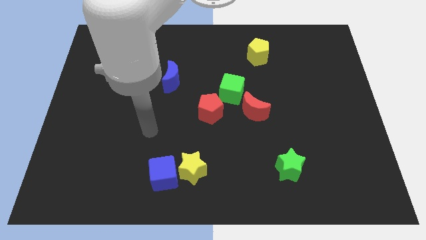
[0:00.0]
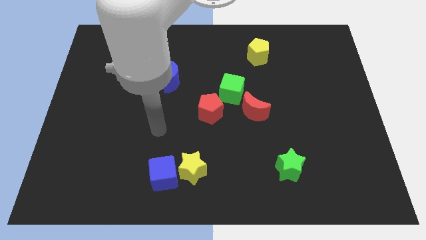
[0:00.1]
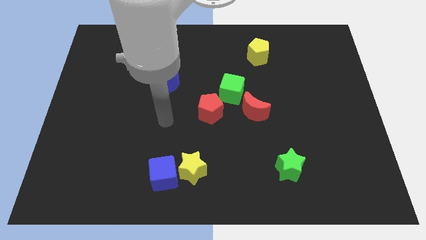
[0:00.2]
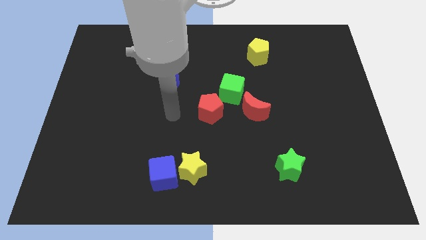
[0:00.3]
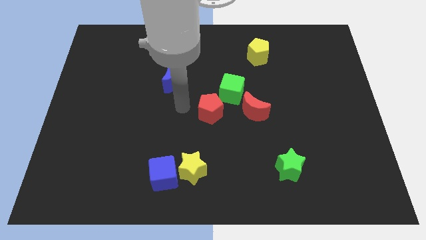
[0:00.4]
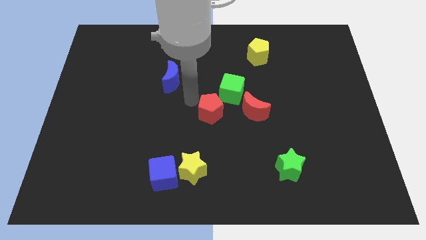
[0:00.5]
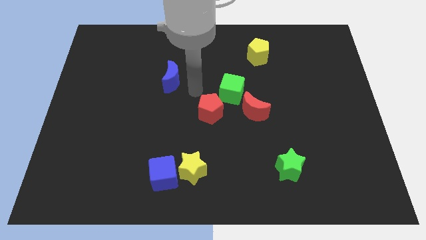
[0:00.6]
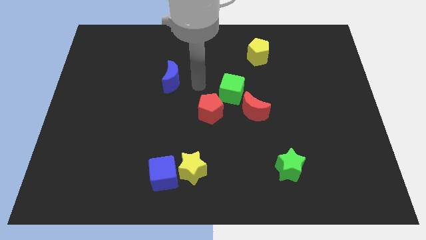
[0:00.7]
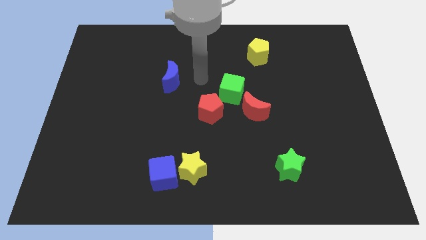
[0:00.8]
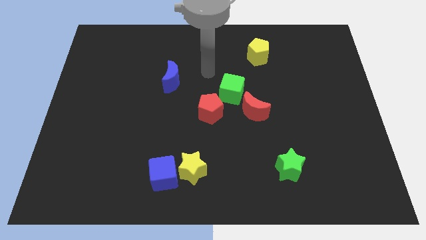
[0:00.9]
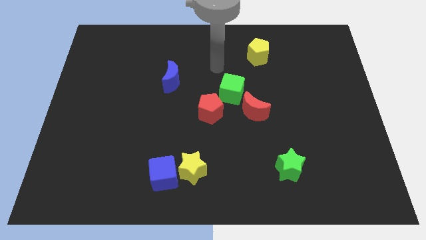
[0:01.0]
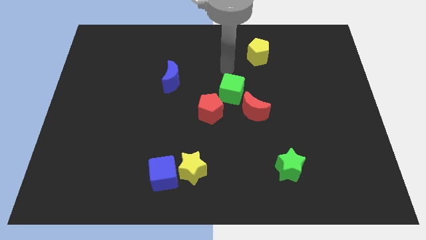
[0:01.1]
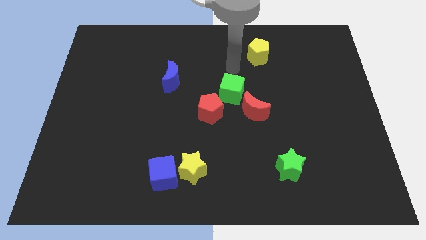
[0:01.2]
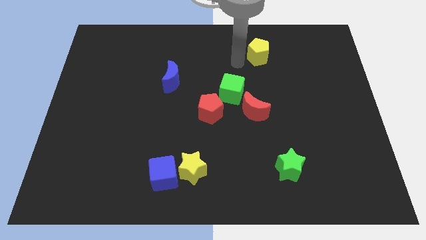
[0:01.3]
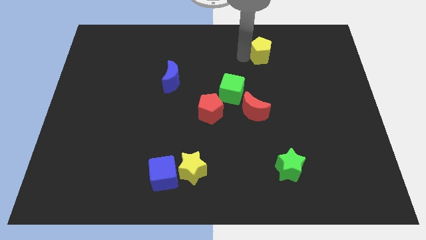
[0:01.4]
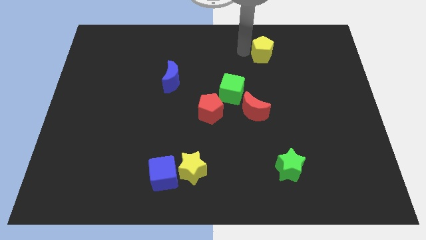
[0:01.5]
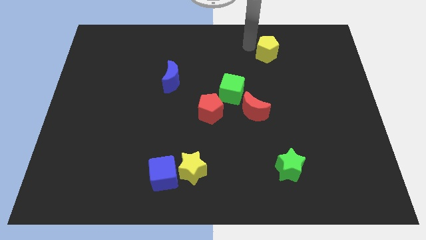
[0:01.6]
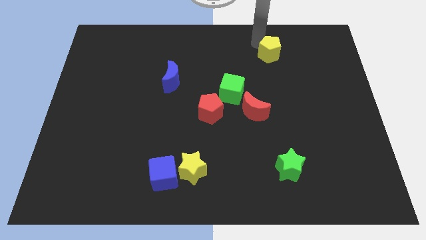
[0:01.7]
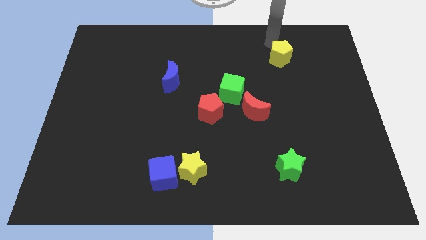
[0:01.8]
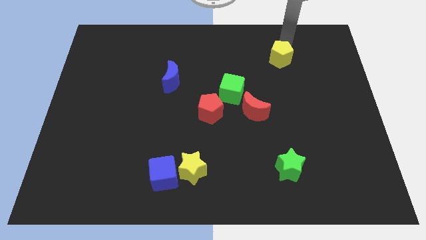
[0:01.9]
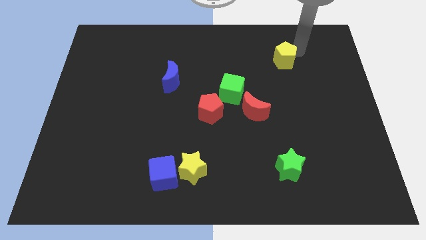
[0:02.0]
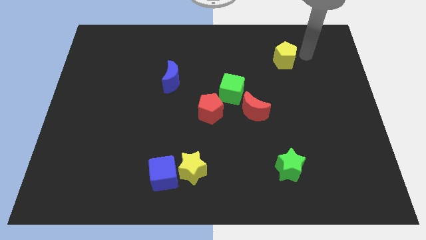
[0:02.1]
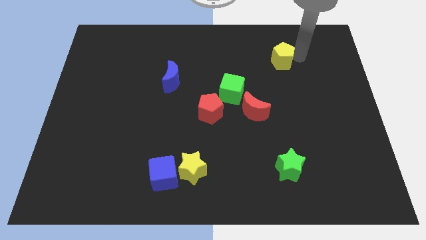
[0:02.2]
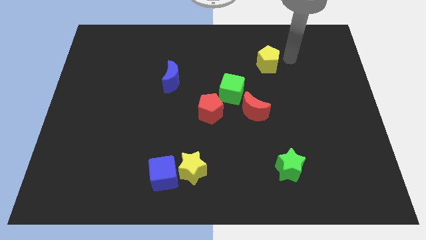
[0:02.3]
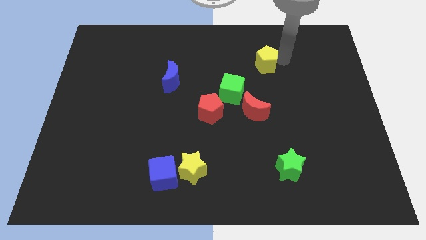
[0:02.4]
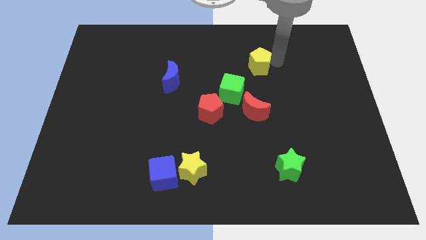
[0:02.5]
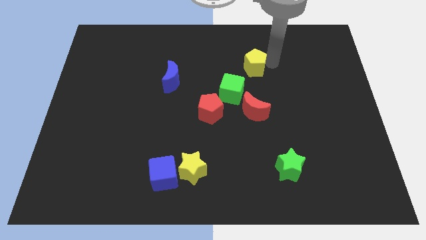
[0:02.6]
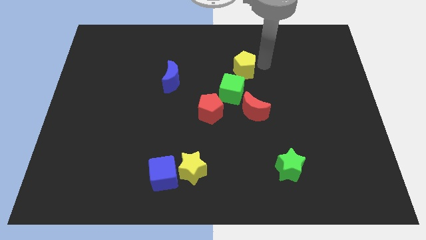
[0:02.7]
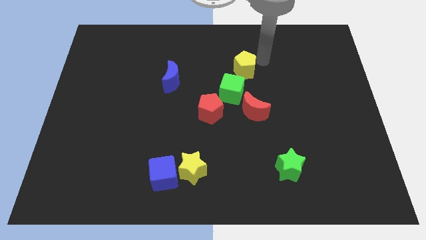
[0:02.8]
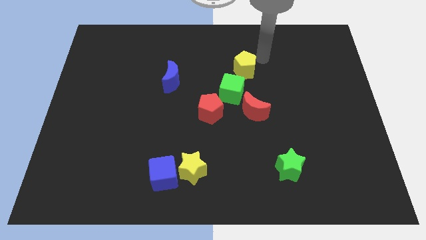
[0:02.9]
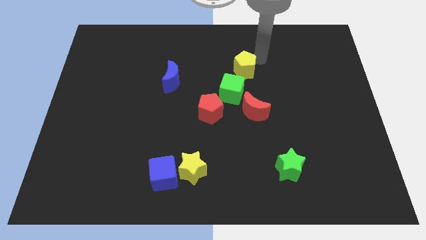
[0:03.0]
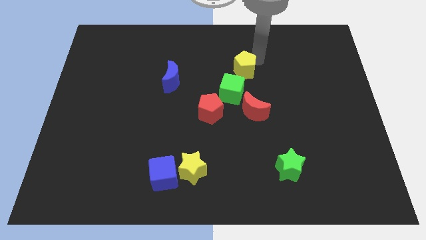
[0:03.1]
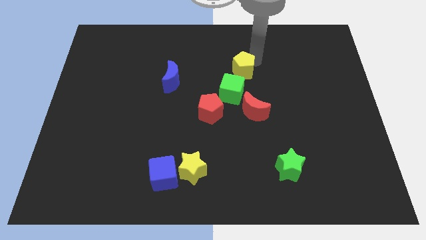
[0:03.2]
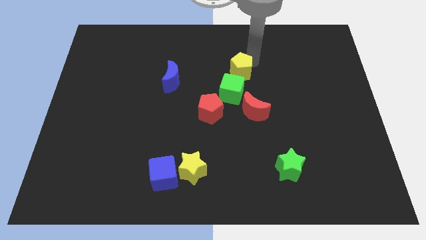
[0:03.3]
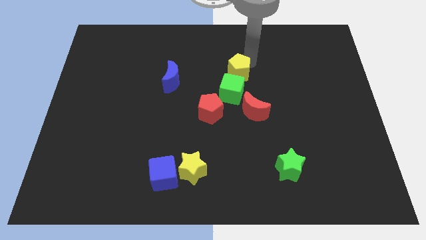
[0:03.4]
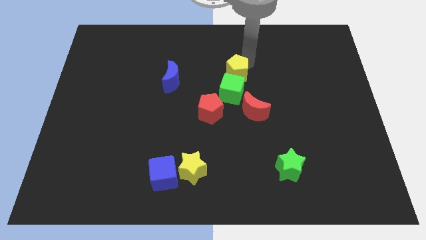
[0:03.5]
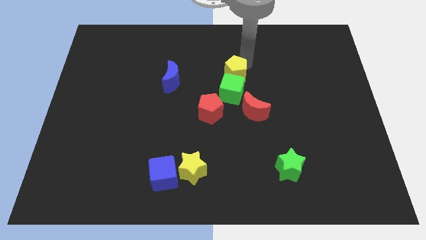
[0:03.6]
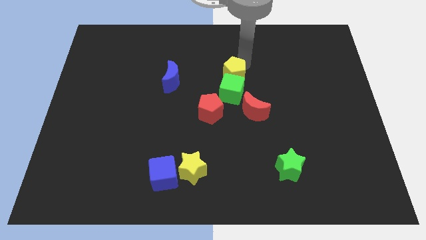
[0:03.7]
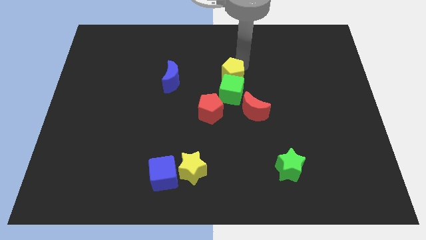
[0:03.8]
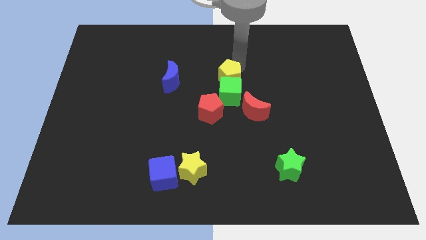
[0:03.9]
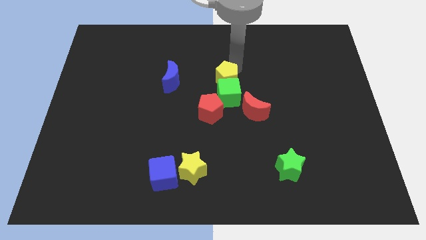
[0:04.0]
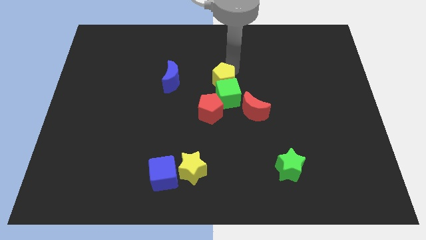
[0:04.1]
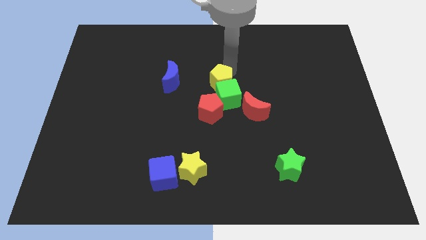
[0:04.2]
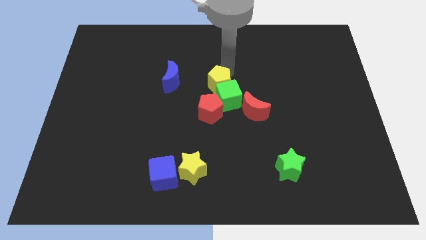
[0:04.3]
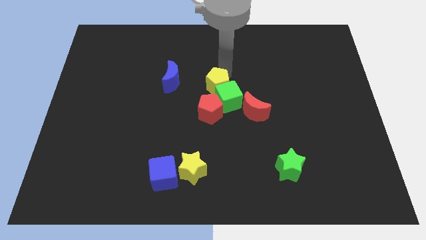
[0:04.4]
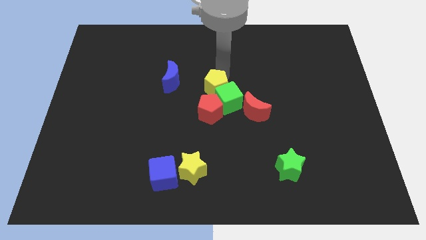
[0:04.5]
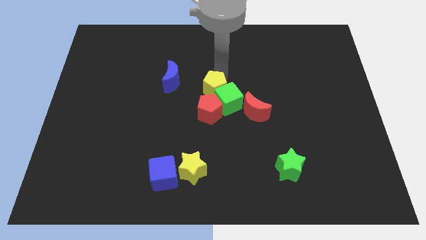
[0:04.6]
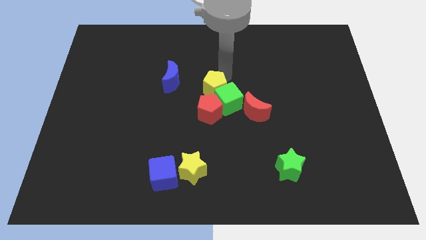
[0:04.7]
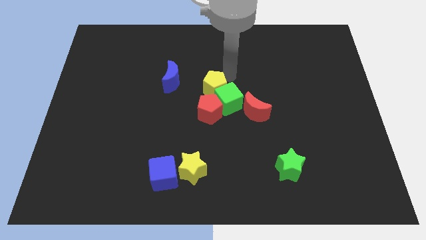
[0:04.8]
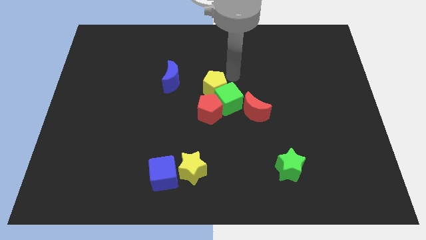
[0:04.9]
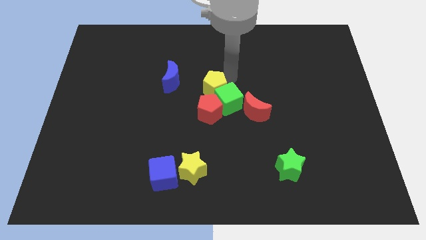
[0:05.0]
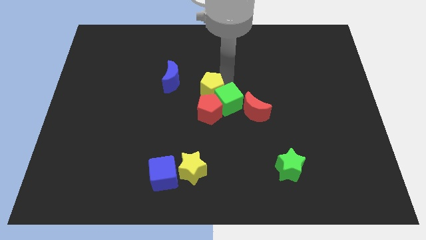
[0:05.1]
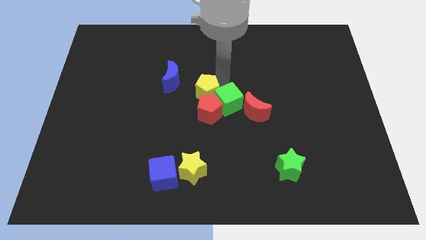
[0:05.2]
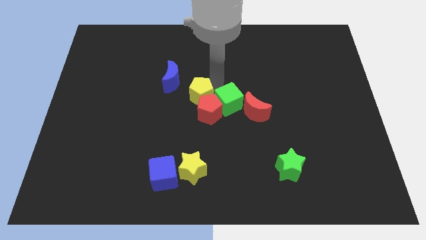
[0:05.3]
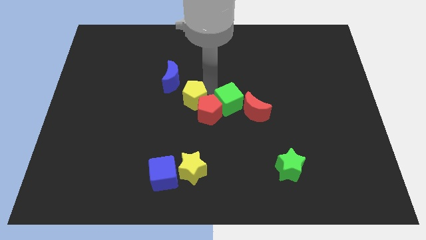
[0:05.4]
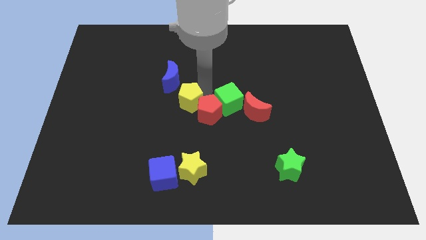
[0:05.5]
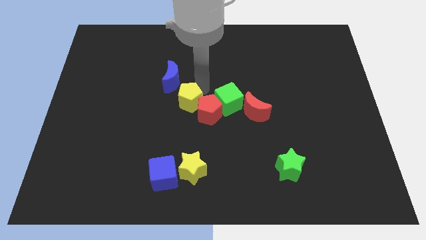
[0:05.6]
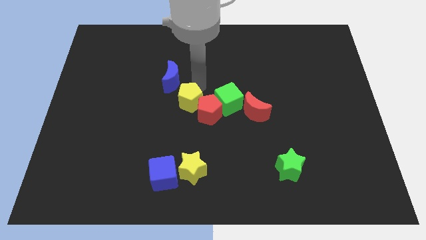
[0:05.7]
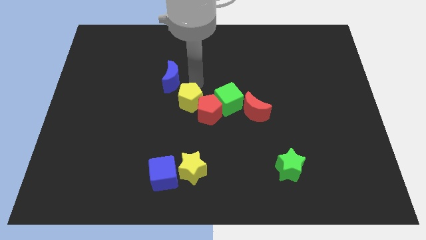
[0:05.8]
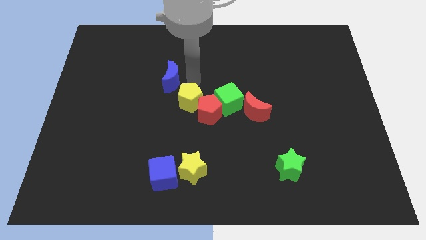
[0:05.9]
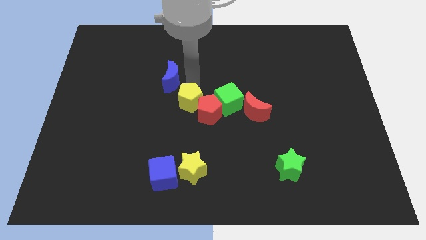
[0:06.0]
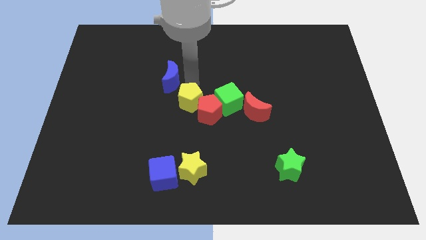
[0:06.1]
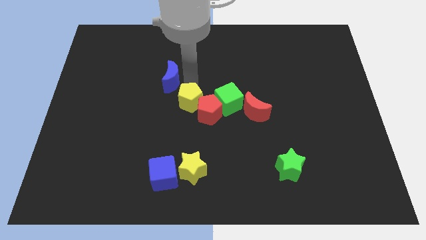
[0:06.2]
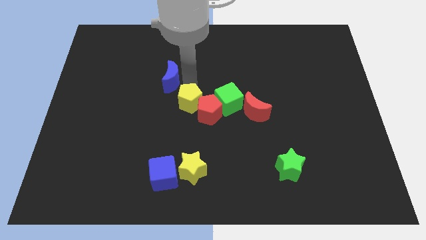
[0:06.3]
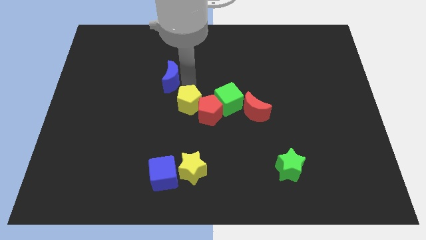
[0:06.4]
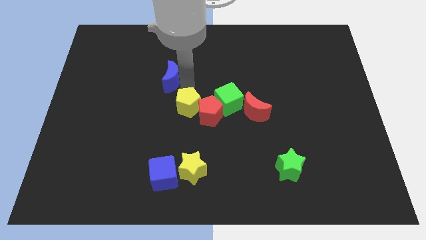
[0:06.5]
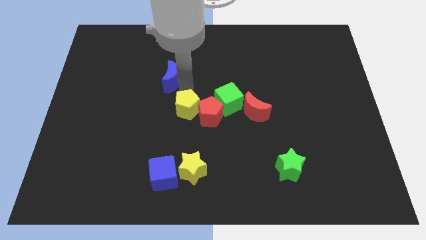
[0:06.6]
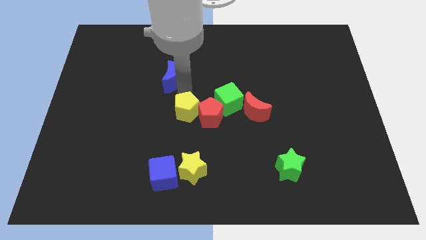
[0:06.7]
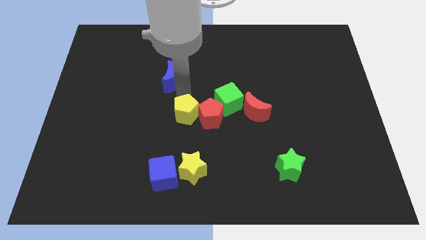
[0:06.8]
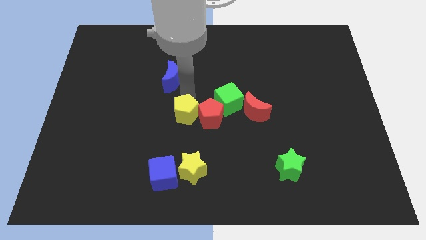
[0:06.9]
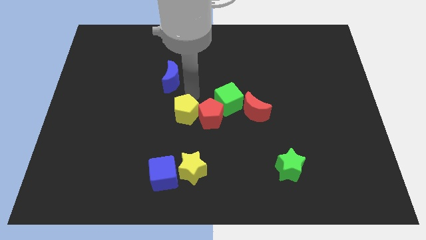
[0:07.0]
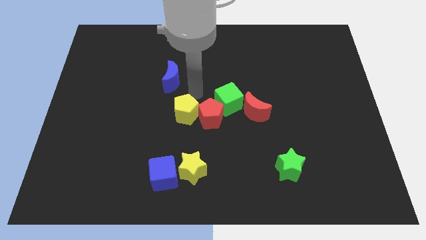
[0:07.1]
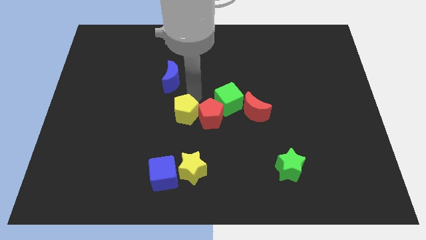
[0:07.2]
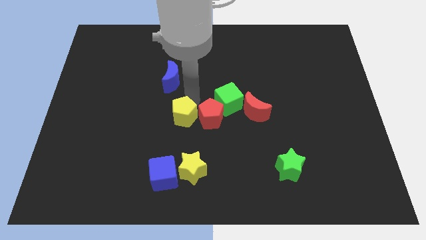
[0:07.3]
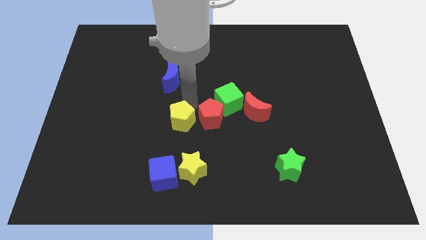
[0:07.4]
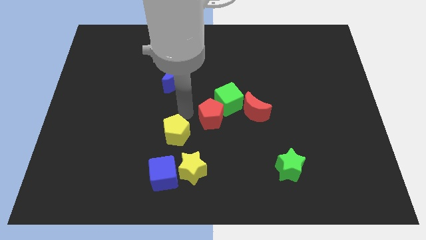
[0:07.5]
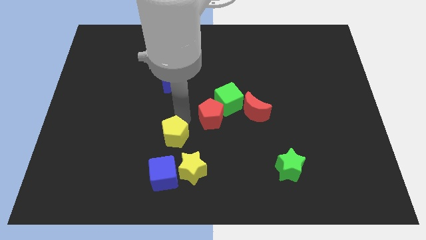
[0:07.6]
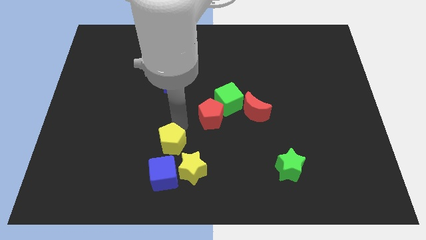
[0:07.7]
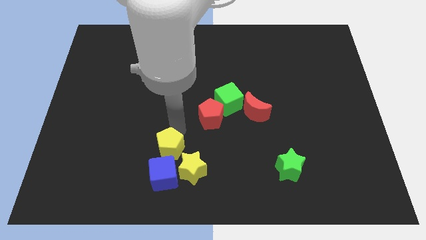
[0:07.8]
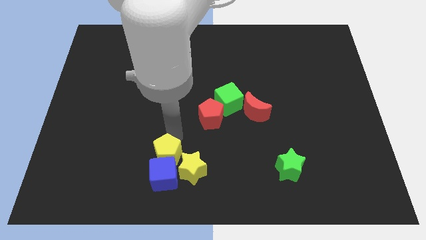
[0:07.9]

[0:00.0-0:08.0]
move the yellow pentagon to the blue cube

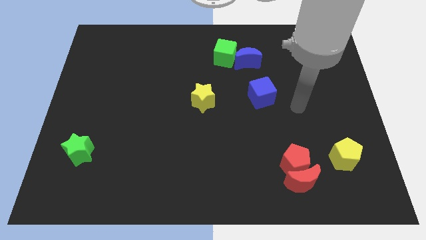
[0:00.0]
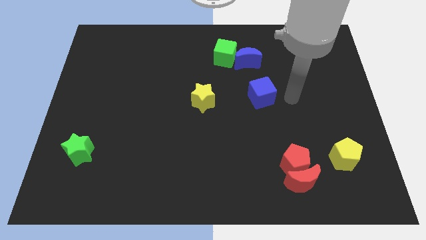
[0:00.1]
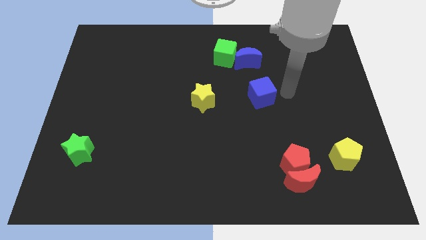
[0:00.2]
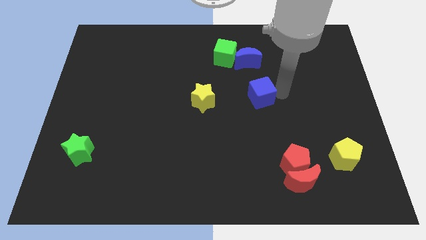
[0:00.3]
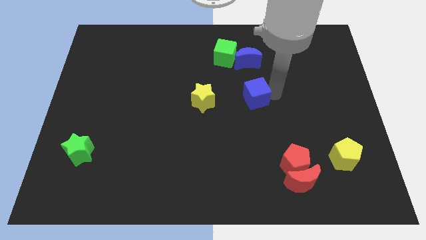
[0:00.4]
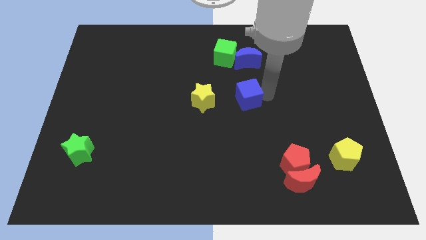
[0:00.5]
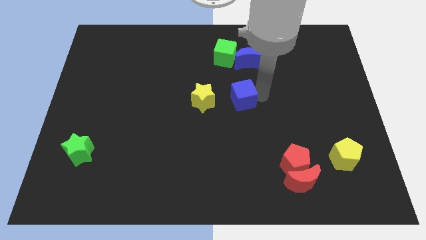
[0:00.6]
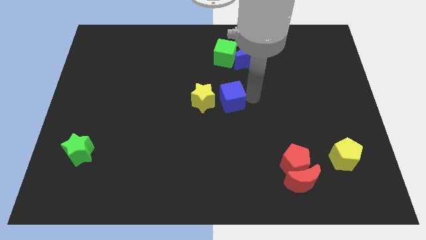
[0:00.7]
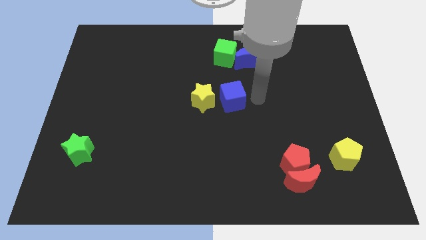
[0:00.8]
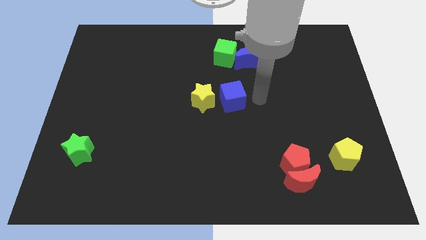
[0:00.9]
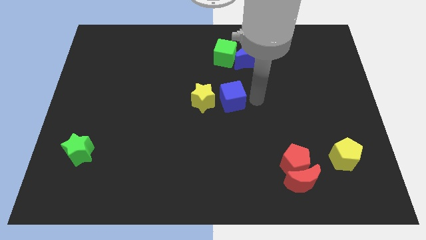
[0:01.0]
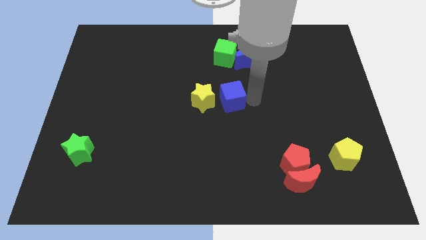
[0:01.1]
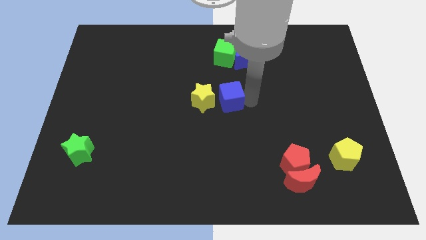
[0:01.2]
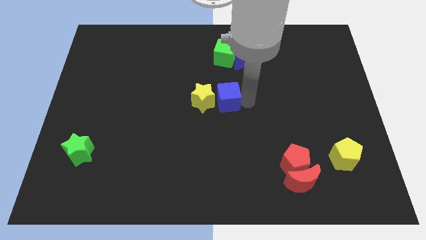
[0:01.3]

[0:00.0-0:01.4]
move the blue cube close to the yellow star
